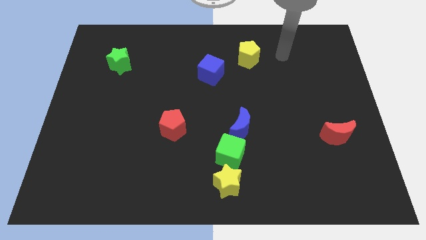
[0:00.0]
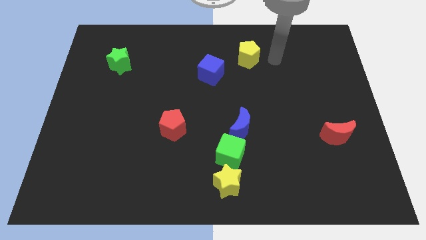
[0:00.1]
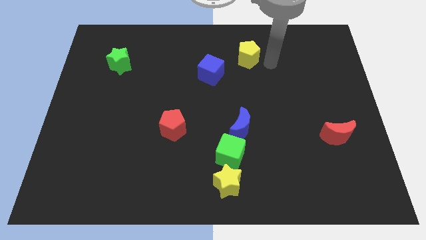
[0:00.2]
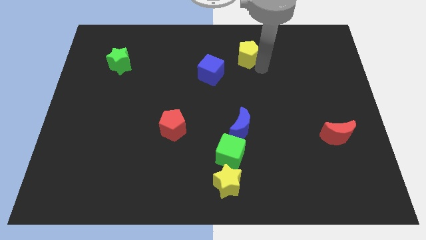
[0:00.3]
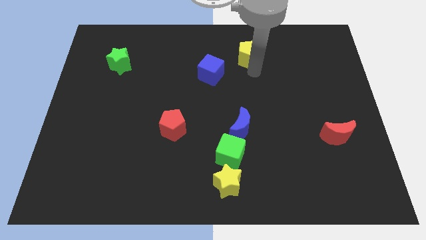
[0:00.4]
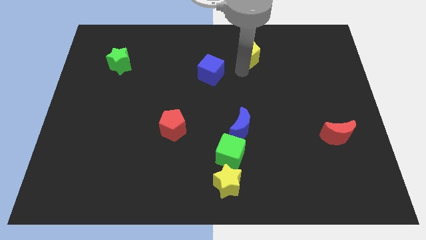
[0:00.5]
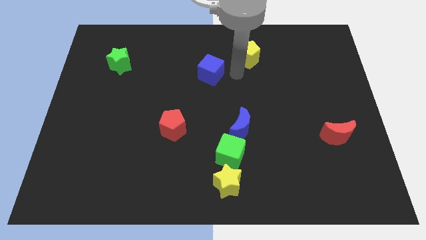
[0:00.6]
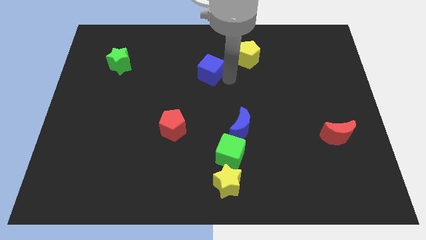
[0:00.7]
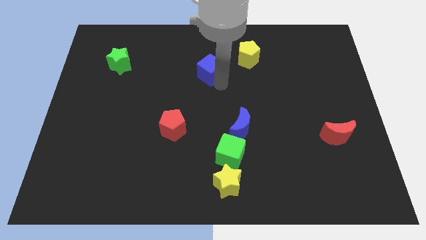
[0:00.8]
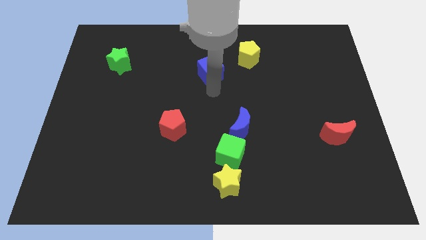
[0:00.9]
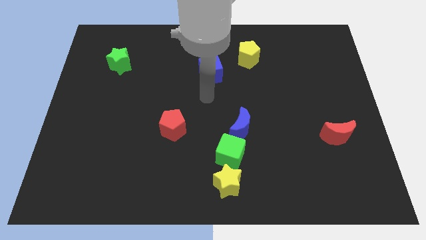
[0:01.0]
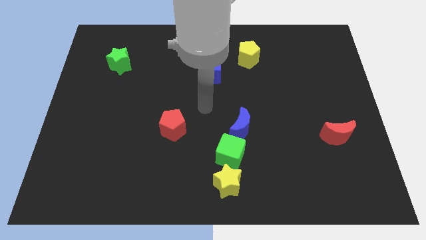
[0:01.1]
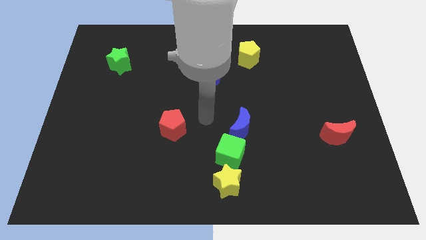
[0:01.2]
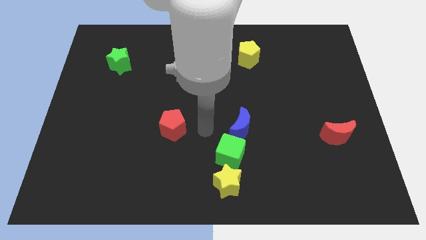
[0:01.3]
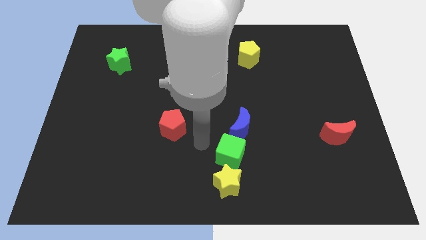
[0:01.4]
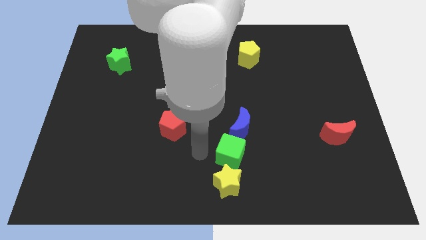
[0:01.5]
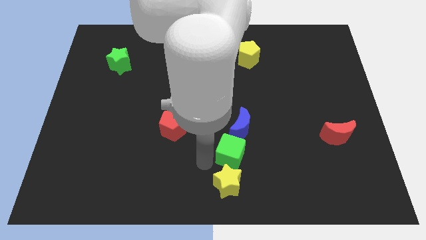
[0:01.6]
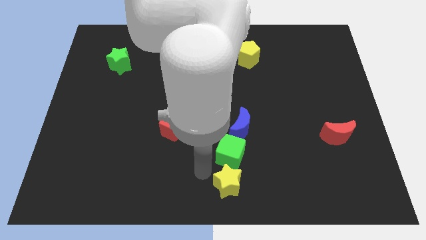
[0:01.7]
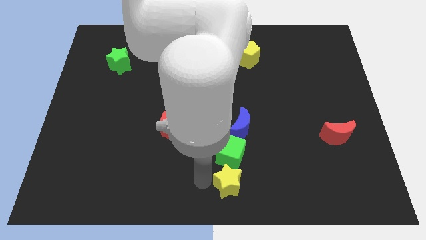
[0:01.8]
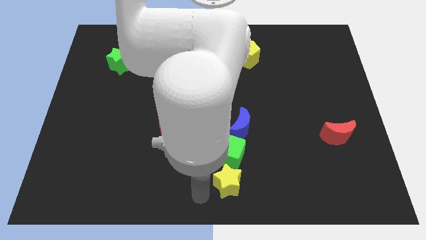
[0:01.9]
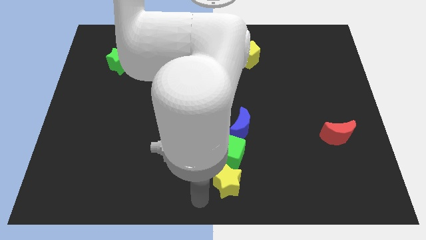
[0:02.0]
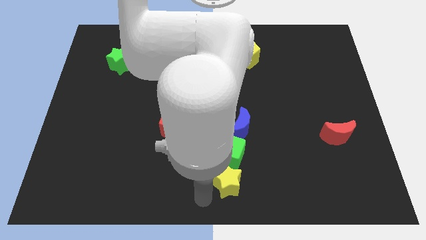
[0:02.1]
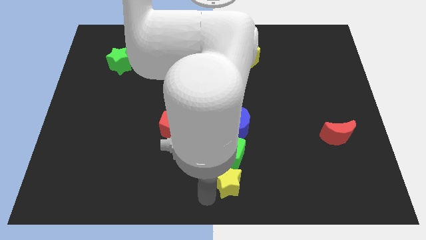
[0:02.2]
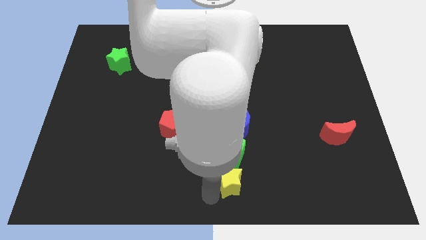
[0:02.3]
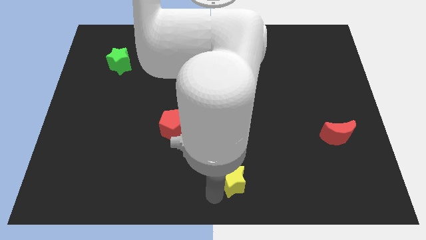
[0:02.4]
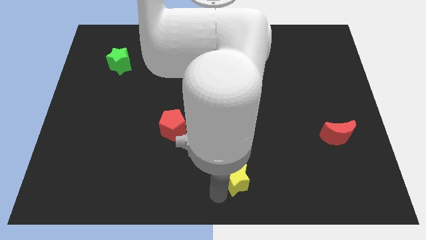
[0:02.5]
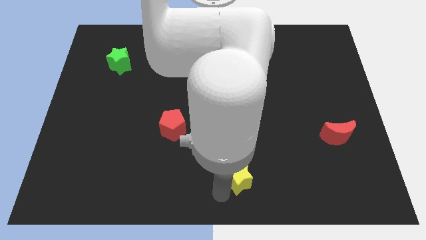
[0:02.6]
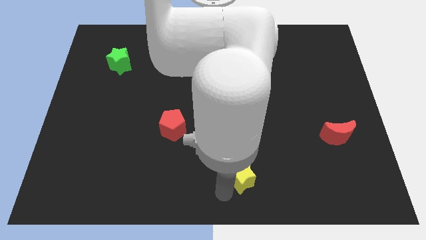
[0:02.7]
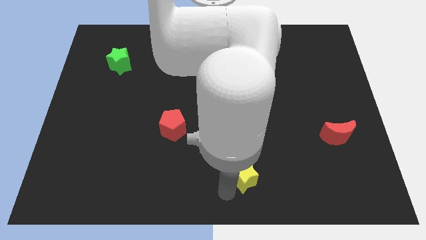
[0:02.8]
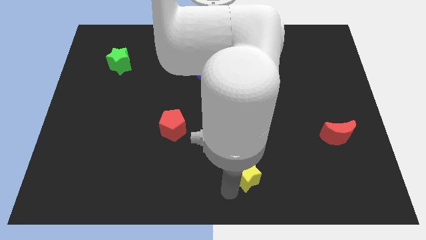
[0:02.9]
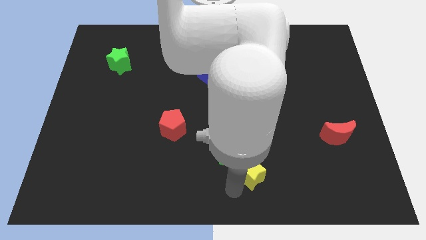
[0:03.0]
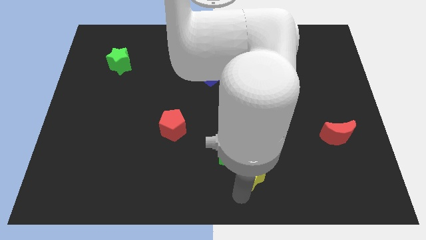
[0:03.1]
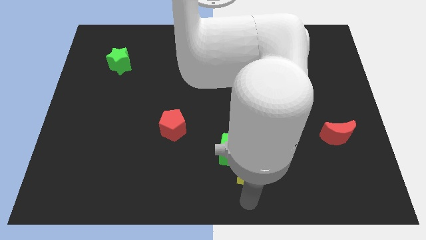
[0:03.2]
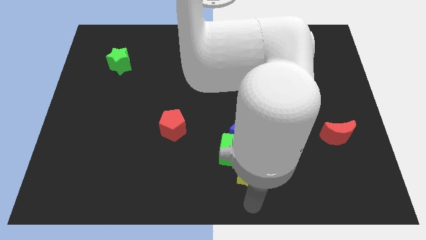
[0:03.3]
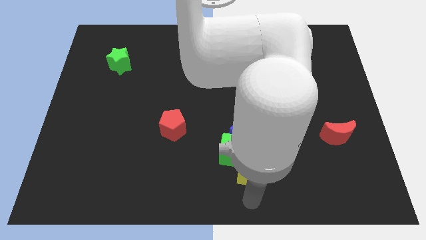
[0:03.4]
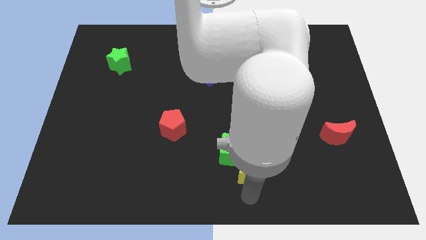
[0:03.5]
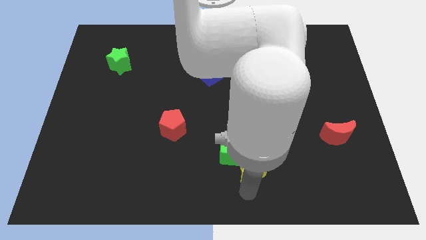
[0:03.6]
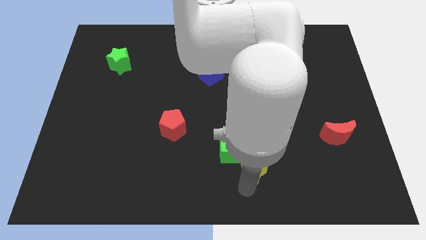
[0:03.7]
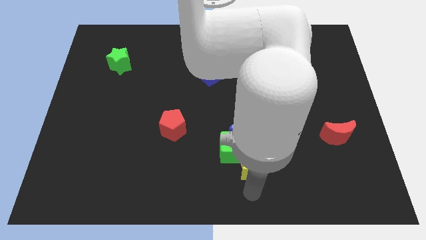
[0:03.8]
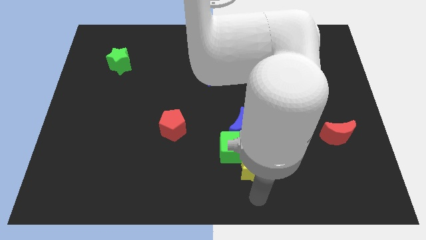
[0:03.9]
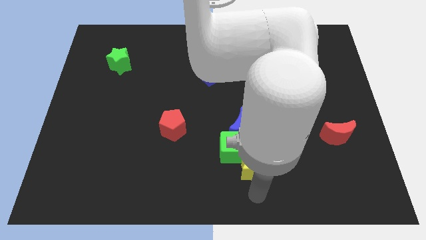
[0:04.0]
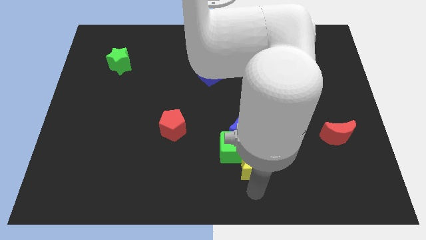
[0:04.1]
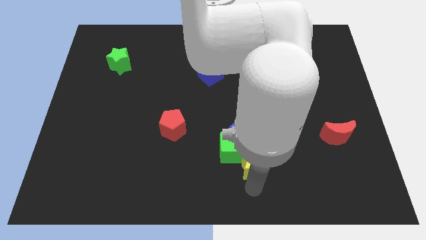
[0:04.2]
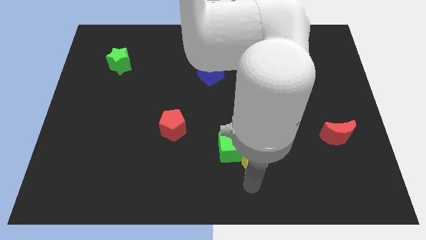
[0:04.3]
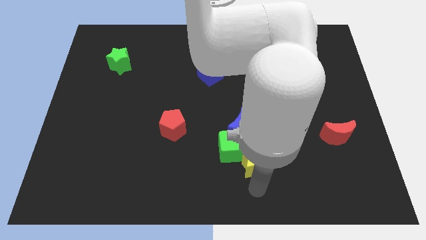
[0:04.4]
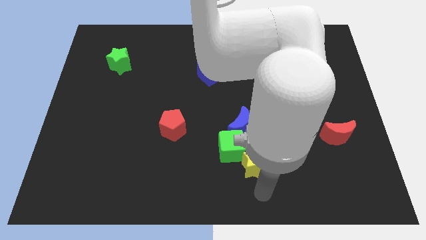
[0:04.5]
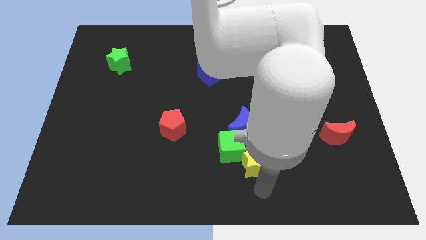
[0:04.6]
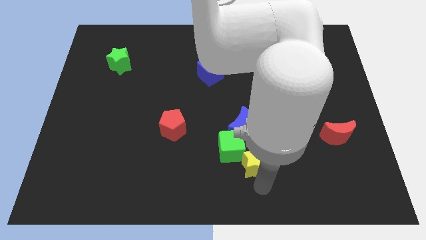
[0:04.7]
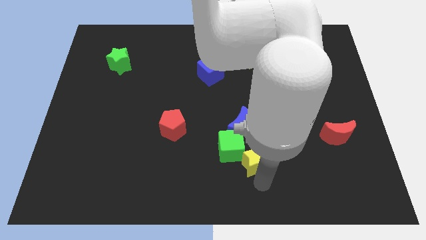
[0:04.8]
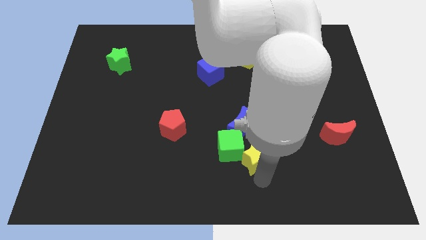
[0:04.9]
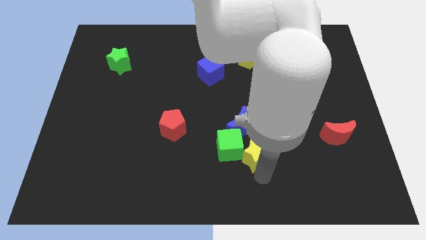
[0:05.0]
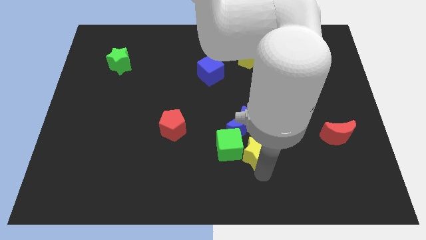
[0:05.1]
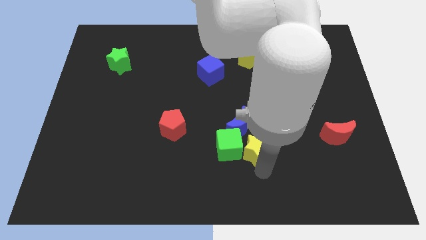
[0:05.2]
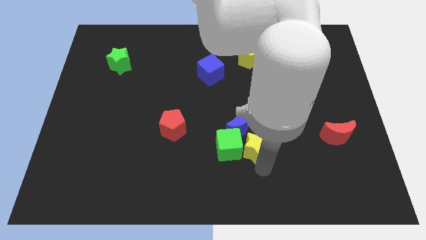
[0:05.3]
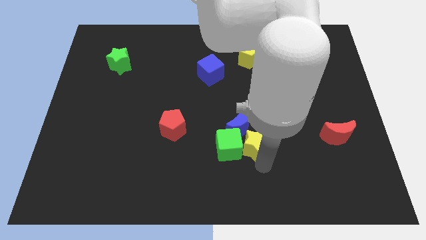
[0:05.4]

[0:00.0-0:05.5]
put the yellow star close to the blue moon

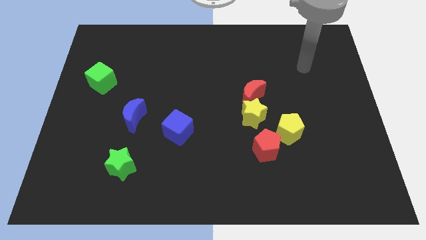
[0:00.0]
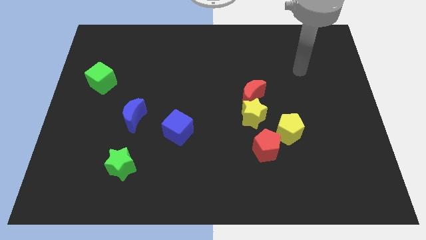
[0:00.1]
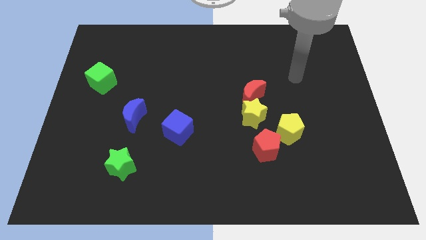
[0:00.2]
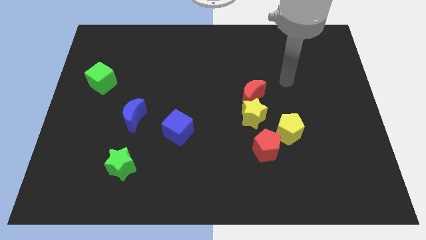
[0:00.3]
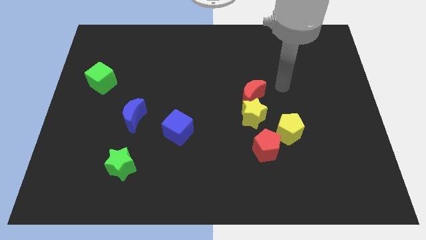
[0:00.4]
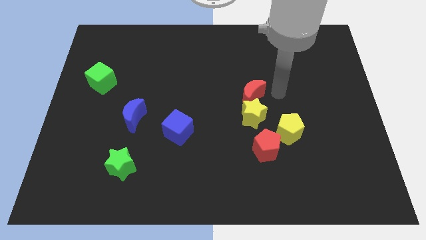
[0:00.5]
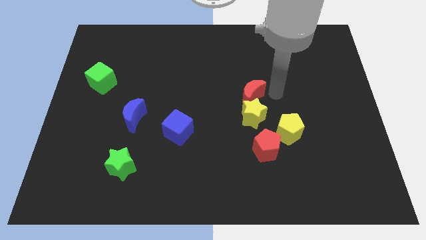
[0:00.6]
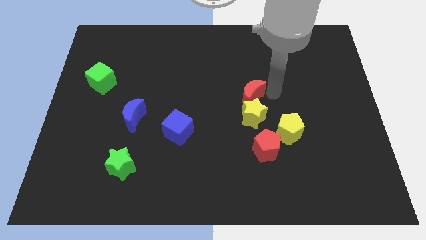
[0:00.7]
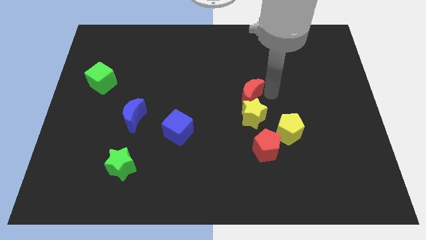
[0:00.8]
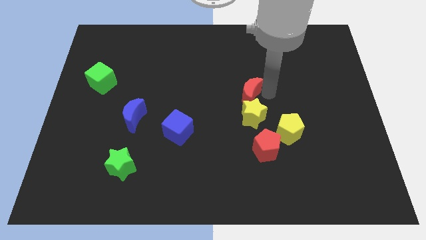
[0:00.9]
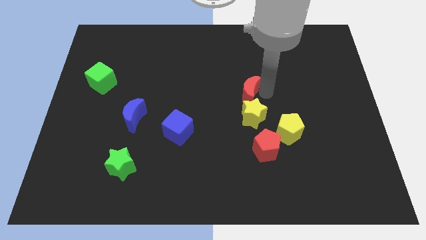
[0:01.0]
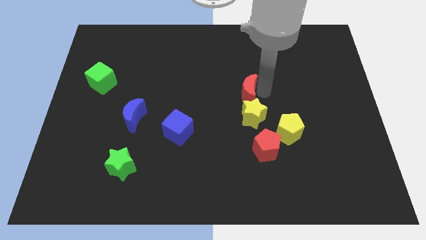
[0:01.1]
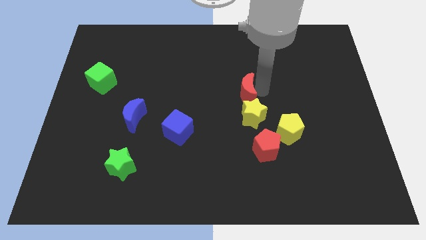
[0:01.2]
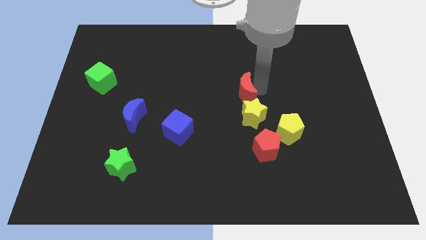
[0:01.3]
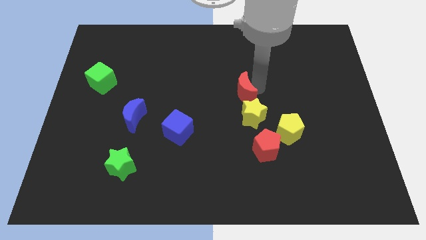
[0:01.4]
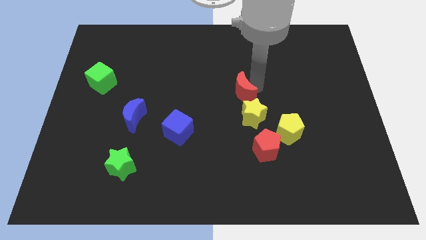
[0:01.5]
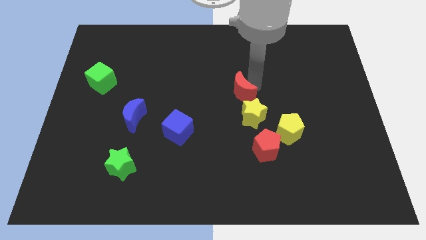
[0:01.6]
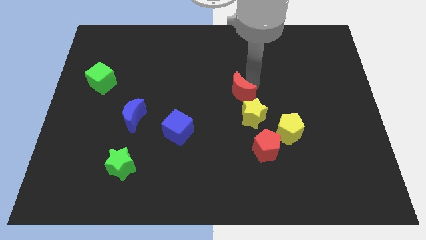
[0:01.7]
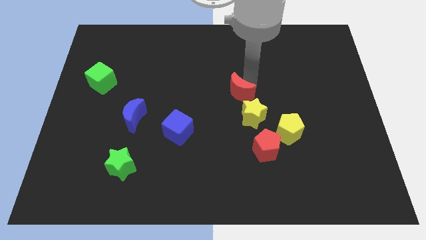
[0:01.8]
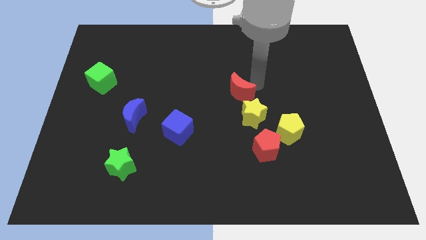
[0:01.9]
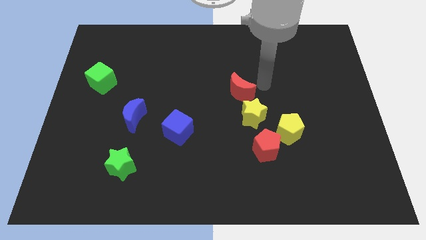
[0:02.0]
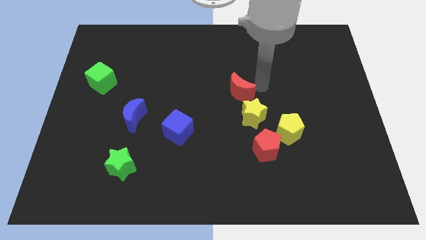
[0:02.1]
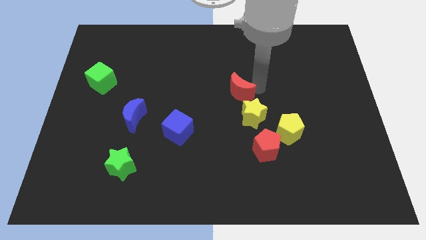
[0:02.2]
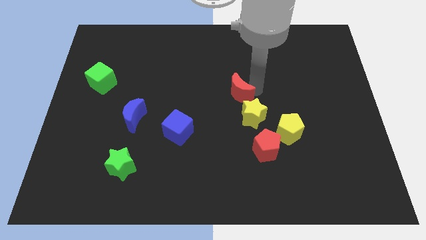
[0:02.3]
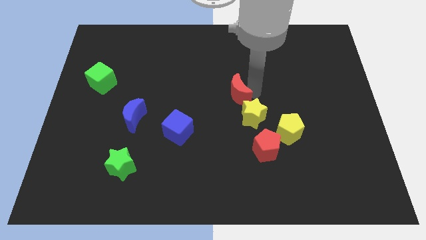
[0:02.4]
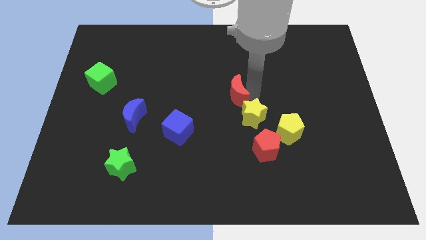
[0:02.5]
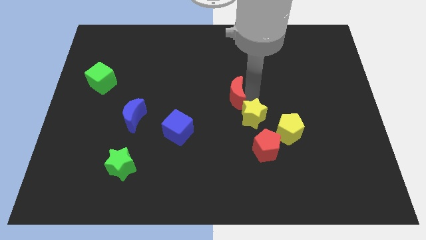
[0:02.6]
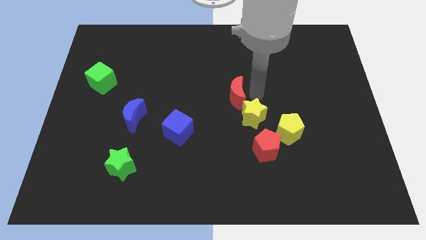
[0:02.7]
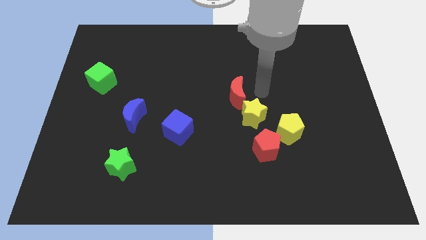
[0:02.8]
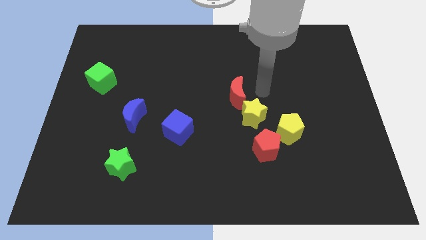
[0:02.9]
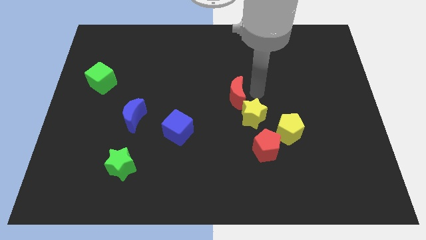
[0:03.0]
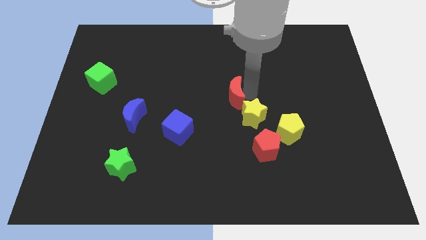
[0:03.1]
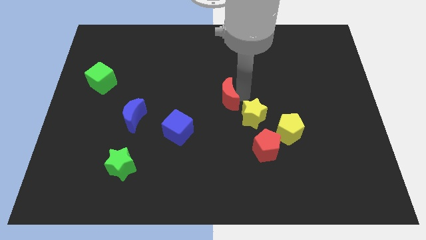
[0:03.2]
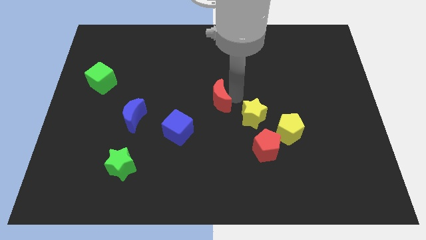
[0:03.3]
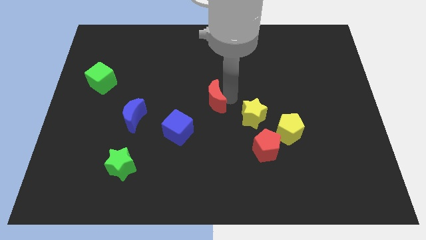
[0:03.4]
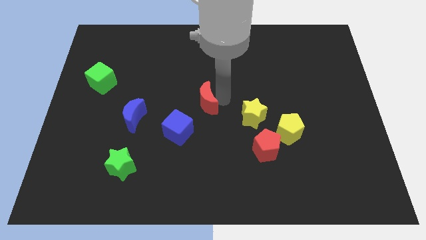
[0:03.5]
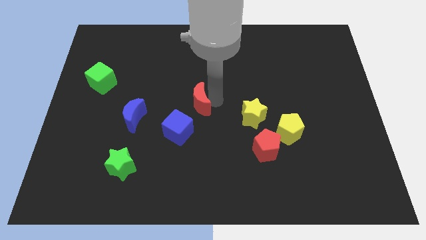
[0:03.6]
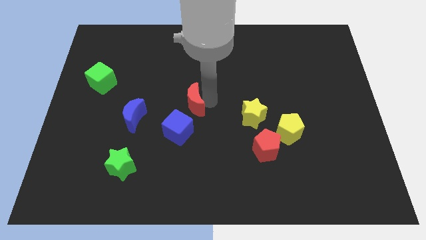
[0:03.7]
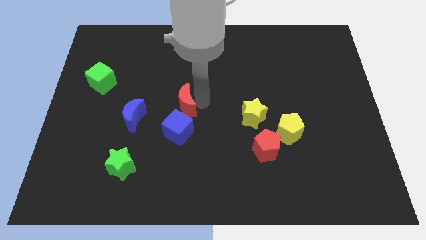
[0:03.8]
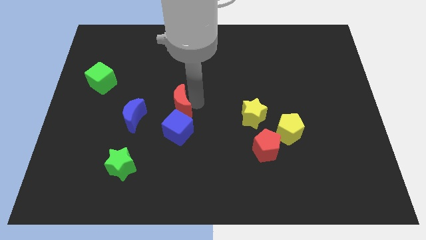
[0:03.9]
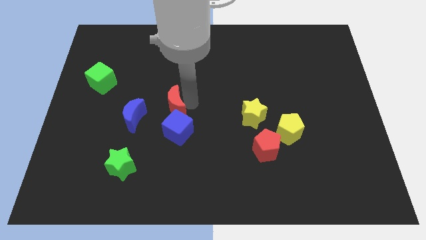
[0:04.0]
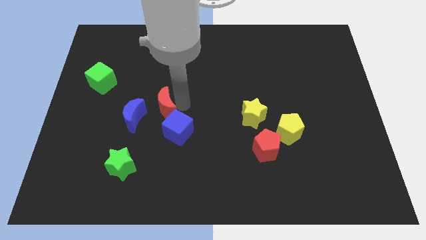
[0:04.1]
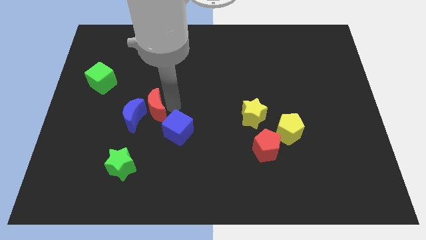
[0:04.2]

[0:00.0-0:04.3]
move the red moon close to the blue moon
